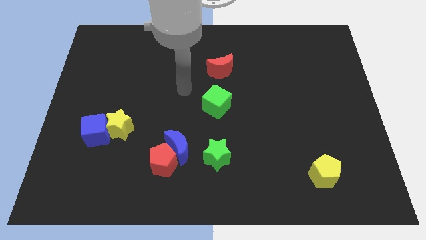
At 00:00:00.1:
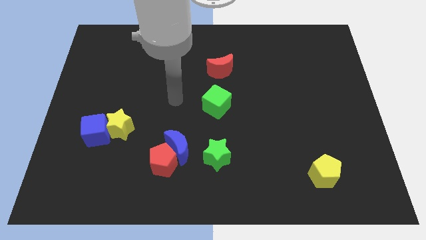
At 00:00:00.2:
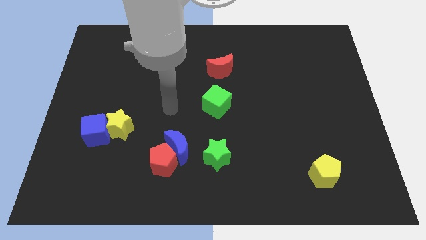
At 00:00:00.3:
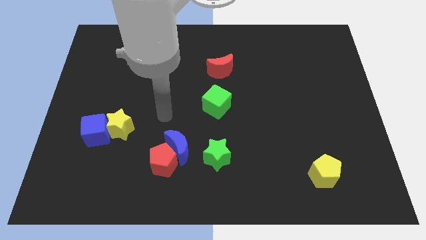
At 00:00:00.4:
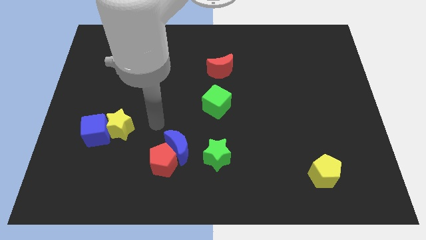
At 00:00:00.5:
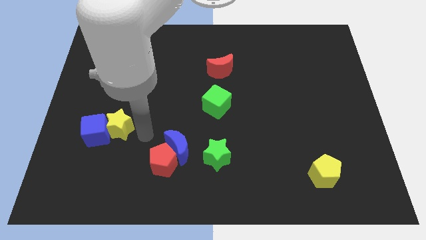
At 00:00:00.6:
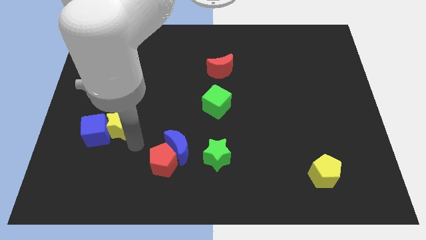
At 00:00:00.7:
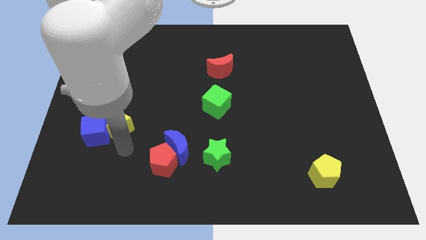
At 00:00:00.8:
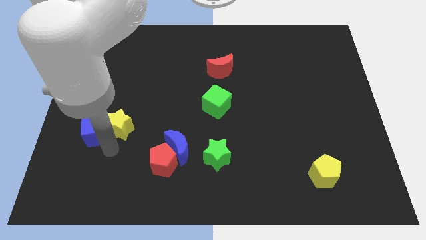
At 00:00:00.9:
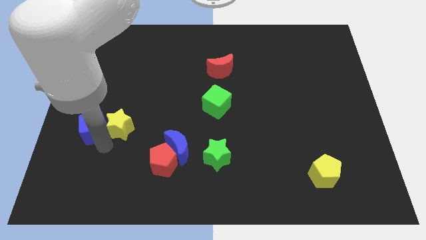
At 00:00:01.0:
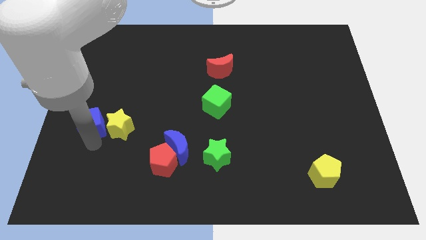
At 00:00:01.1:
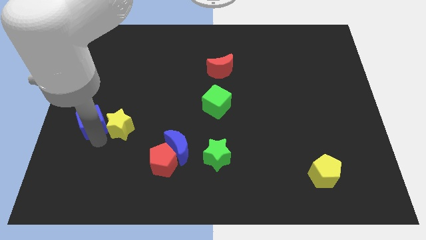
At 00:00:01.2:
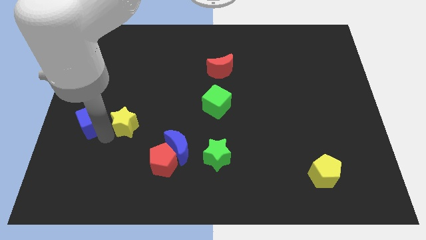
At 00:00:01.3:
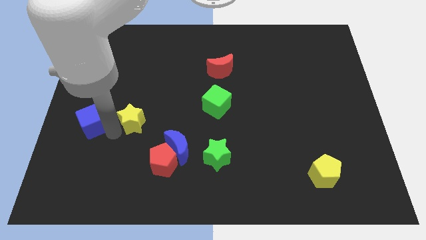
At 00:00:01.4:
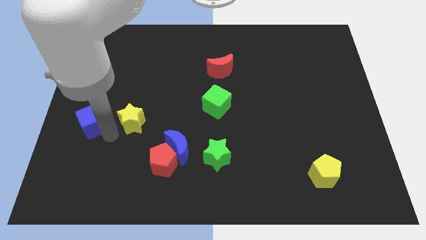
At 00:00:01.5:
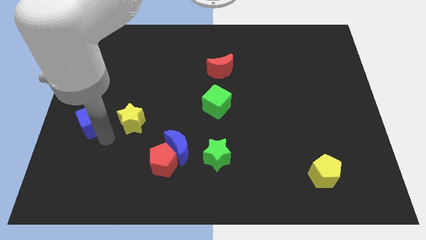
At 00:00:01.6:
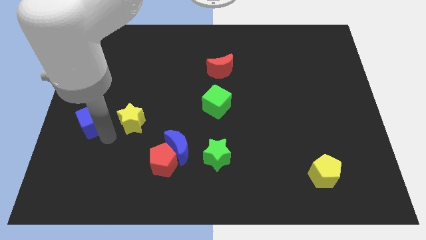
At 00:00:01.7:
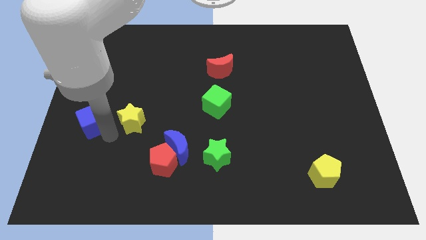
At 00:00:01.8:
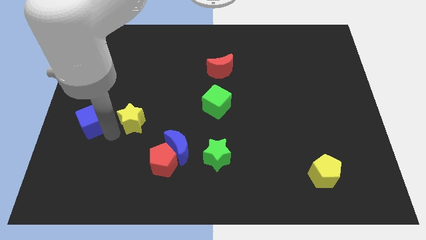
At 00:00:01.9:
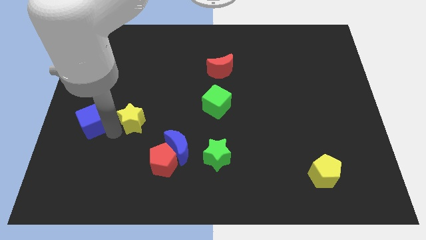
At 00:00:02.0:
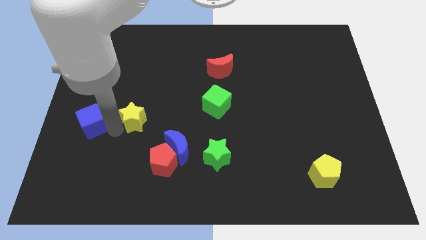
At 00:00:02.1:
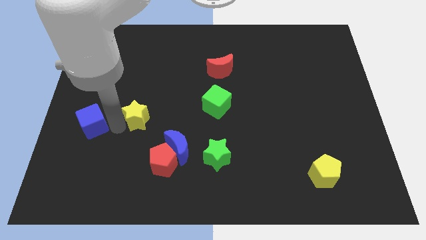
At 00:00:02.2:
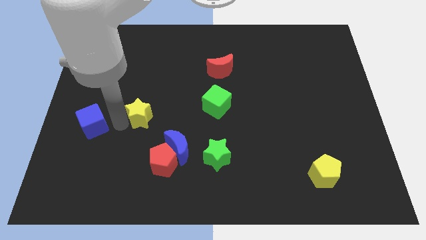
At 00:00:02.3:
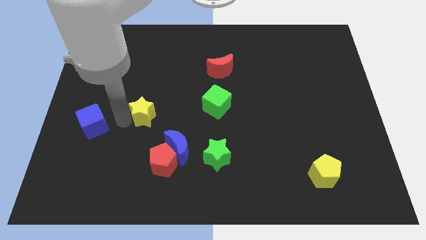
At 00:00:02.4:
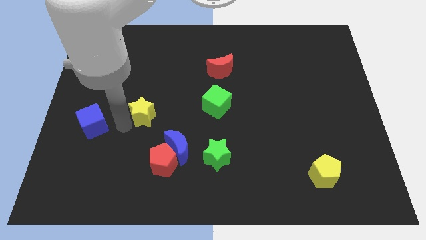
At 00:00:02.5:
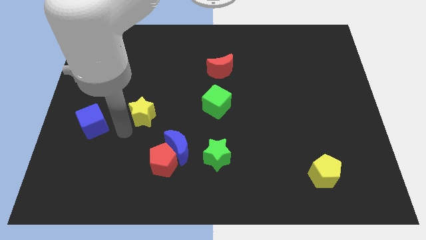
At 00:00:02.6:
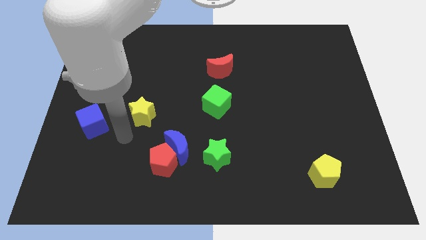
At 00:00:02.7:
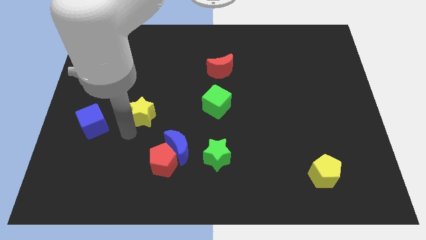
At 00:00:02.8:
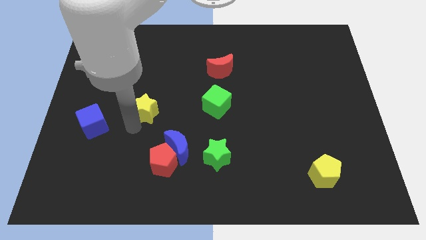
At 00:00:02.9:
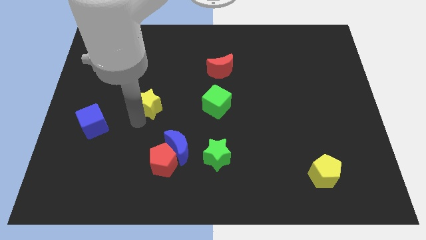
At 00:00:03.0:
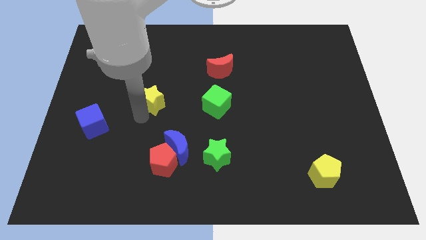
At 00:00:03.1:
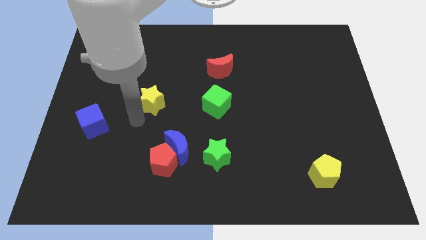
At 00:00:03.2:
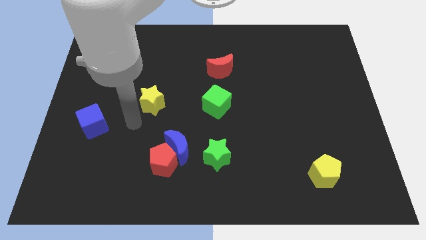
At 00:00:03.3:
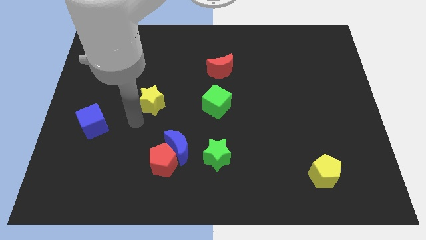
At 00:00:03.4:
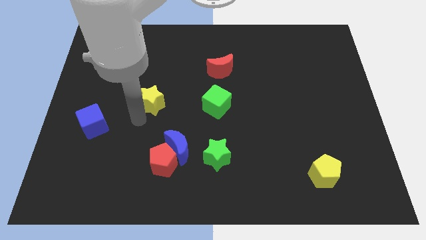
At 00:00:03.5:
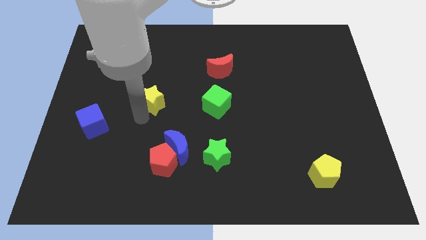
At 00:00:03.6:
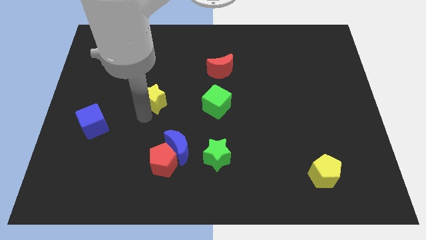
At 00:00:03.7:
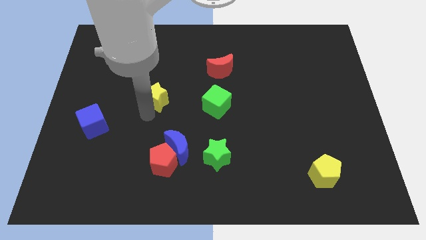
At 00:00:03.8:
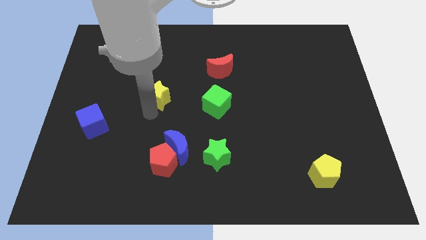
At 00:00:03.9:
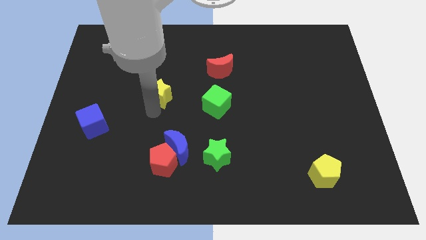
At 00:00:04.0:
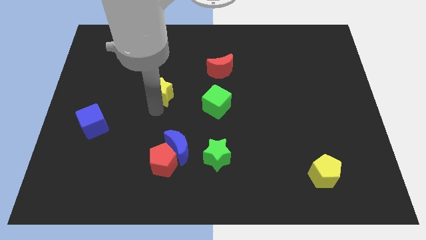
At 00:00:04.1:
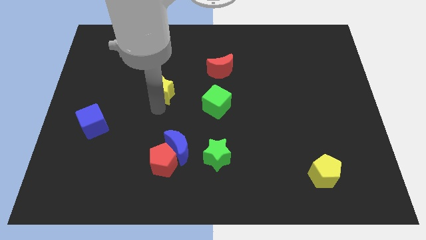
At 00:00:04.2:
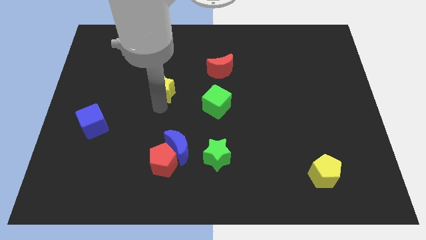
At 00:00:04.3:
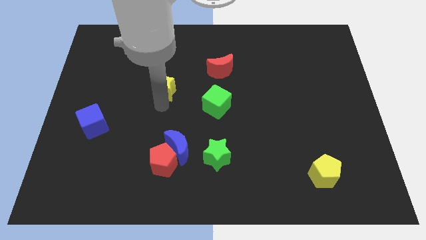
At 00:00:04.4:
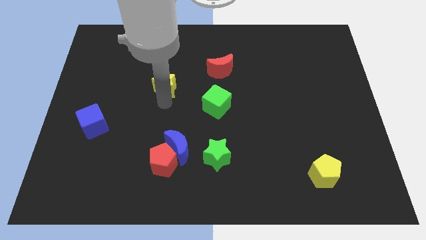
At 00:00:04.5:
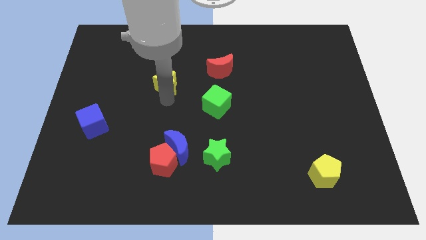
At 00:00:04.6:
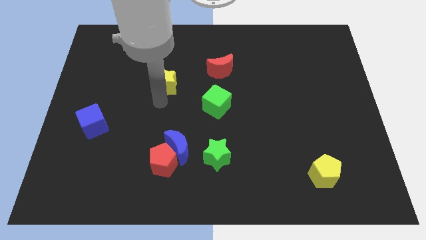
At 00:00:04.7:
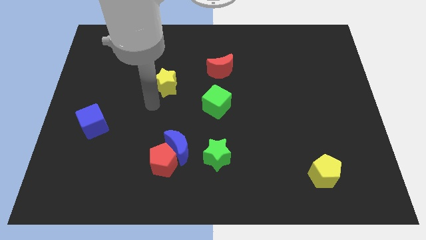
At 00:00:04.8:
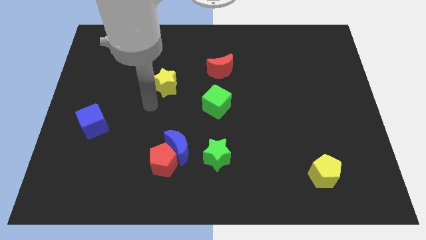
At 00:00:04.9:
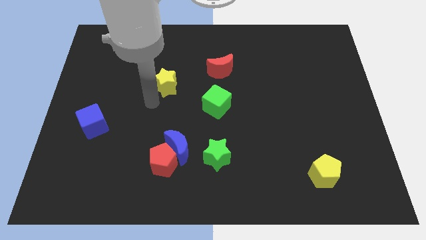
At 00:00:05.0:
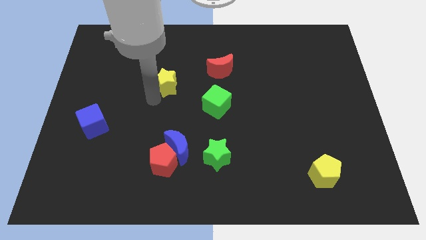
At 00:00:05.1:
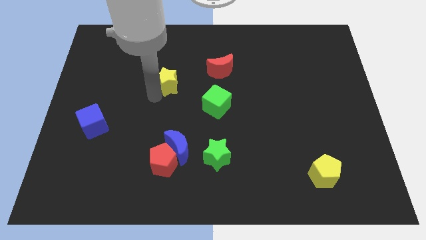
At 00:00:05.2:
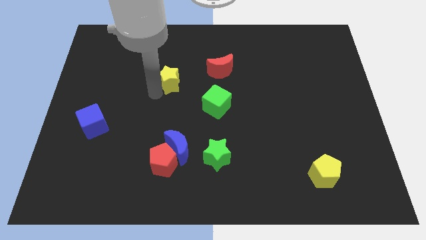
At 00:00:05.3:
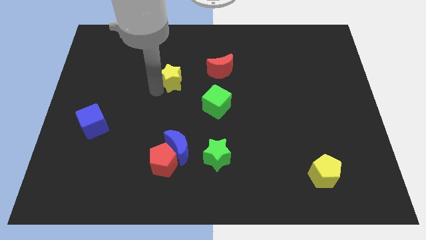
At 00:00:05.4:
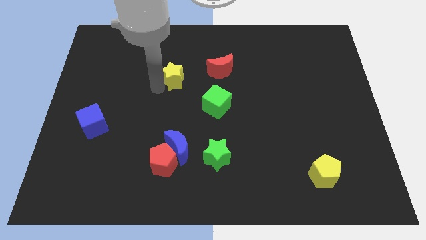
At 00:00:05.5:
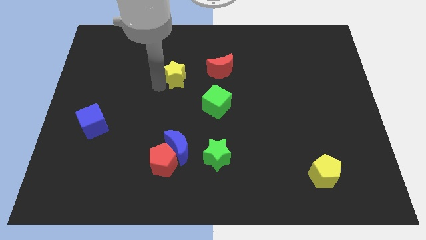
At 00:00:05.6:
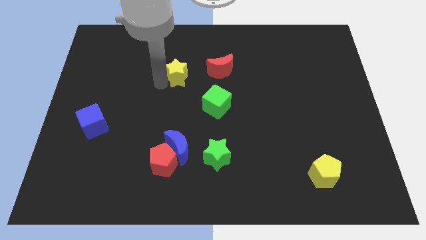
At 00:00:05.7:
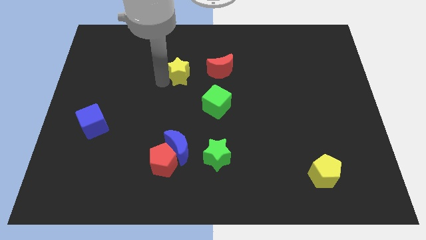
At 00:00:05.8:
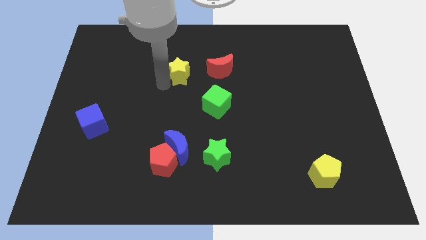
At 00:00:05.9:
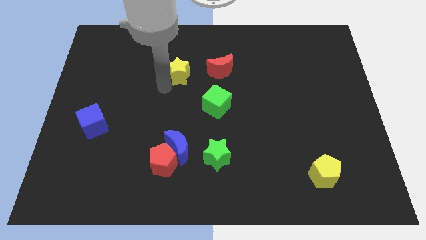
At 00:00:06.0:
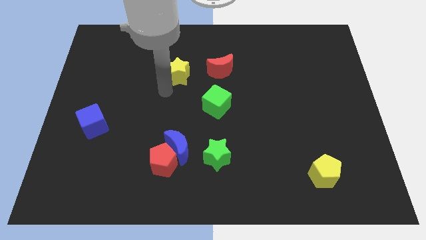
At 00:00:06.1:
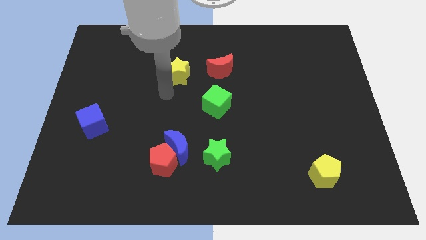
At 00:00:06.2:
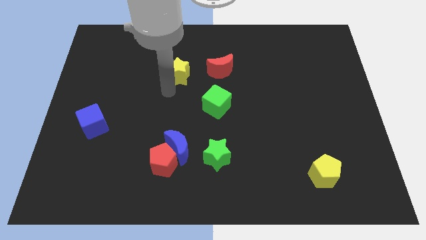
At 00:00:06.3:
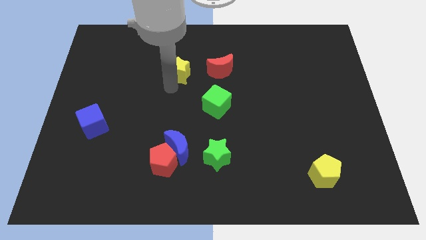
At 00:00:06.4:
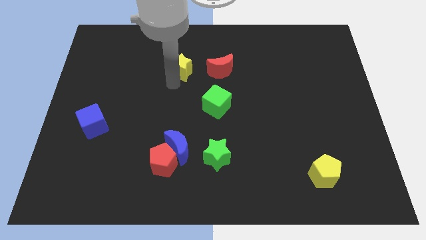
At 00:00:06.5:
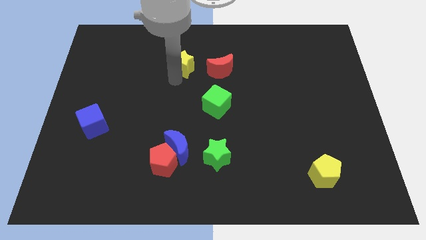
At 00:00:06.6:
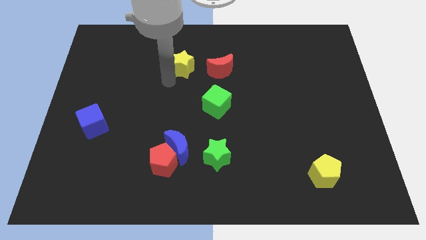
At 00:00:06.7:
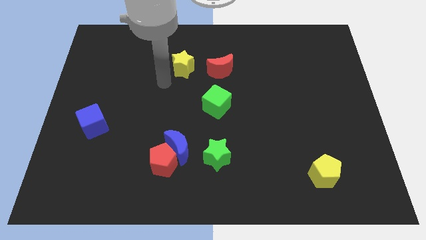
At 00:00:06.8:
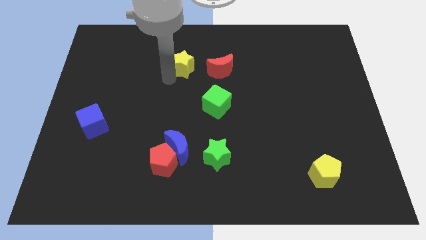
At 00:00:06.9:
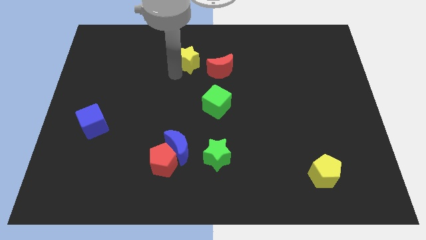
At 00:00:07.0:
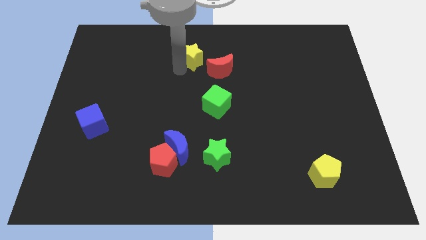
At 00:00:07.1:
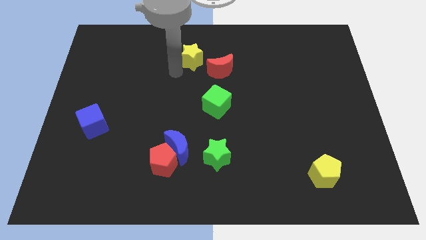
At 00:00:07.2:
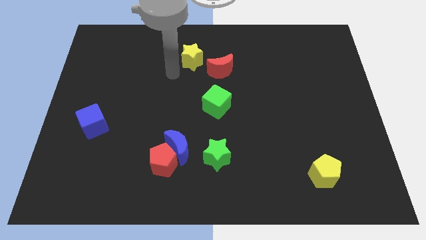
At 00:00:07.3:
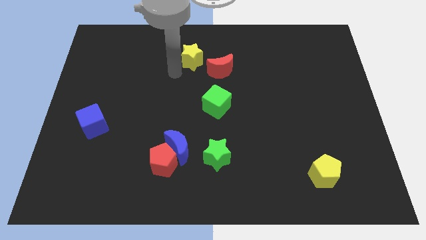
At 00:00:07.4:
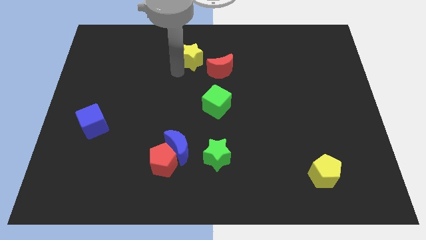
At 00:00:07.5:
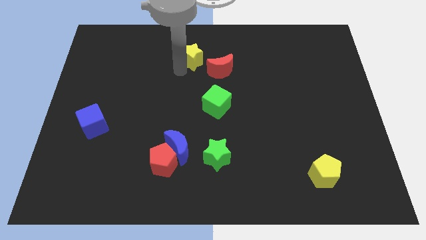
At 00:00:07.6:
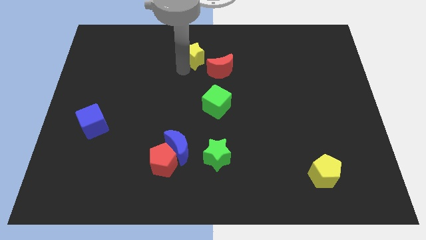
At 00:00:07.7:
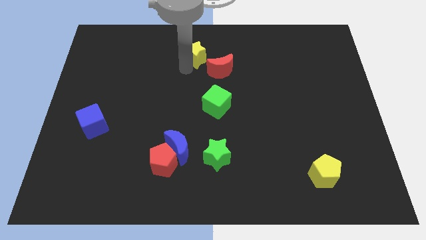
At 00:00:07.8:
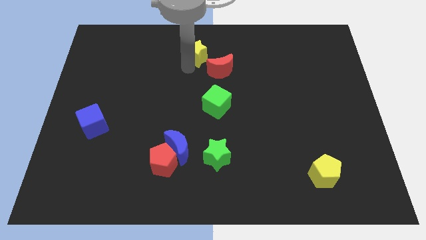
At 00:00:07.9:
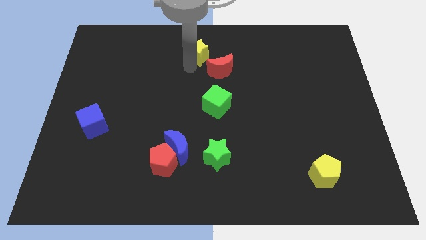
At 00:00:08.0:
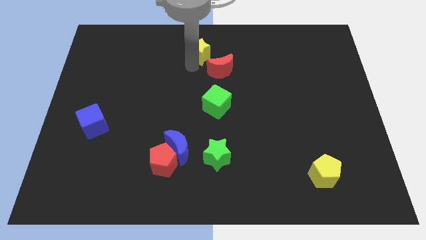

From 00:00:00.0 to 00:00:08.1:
push the yellow star to the towards your base
